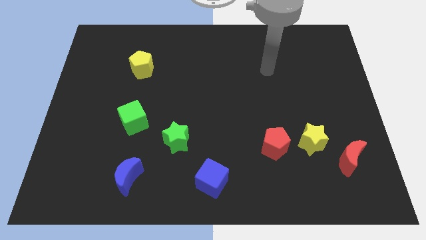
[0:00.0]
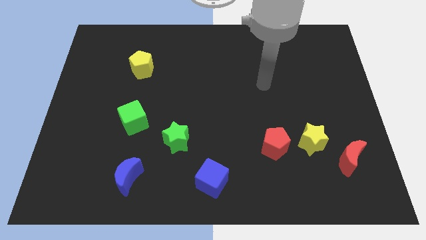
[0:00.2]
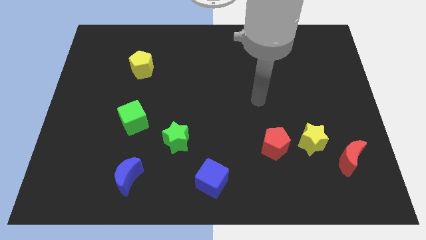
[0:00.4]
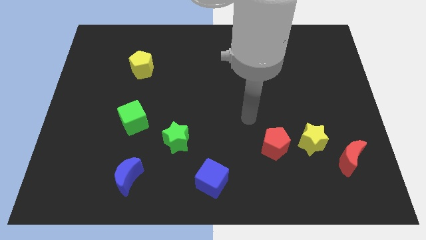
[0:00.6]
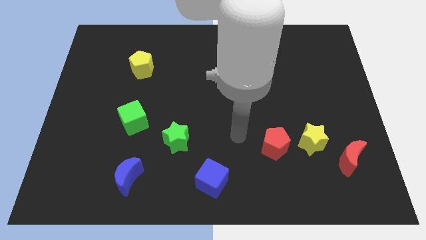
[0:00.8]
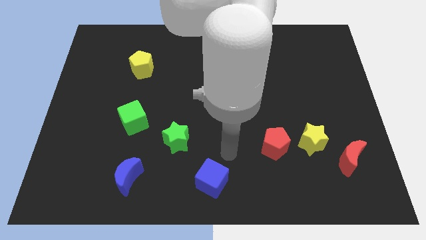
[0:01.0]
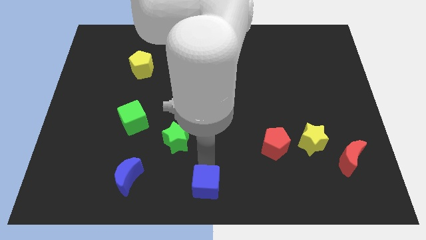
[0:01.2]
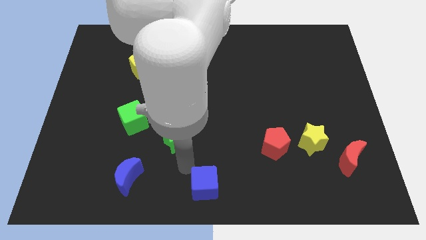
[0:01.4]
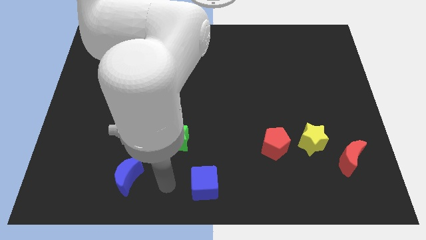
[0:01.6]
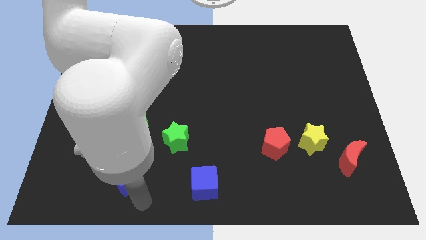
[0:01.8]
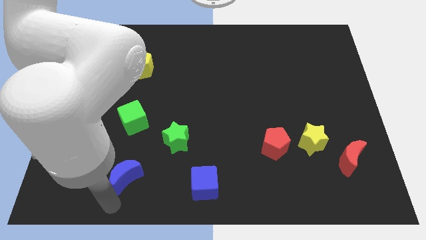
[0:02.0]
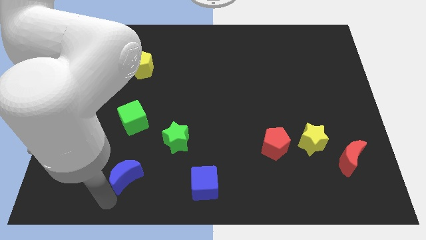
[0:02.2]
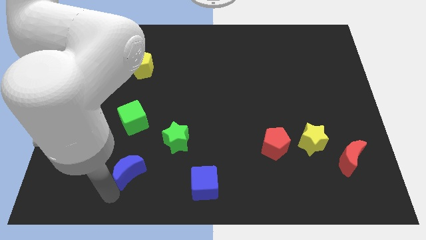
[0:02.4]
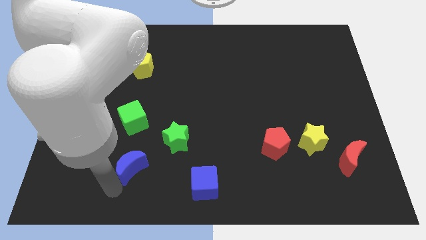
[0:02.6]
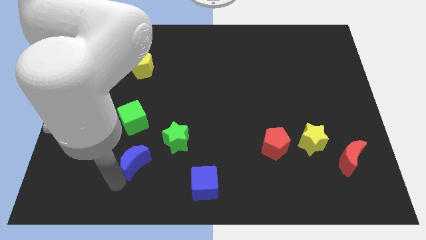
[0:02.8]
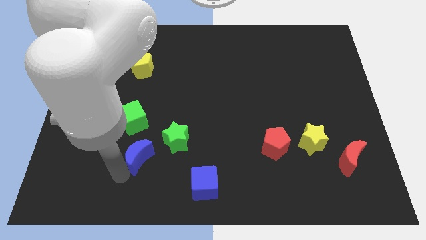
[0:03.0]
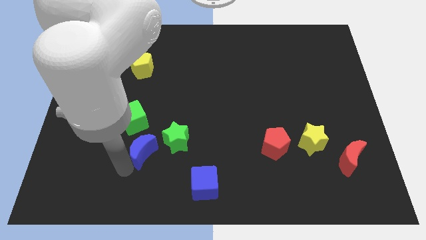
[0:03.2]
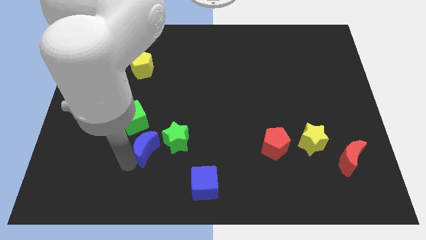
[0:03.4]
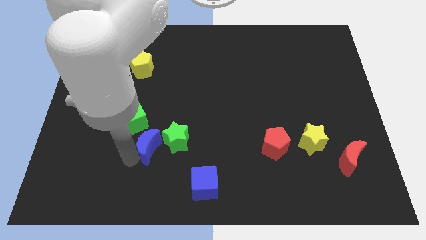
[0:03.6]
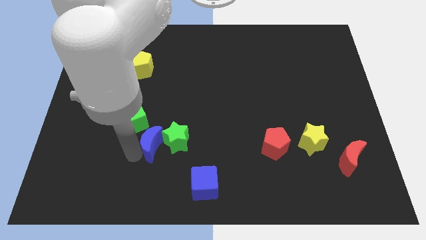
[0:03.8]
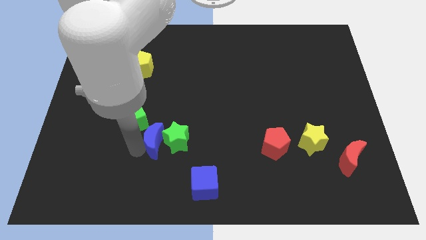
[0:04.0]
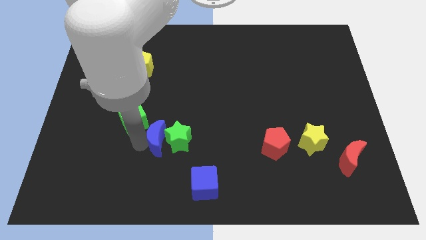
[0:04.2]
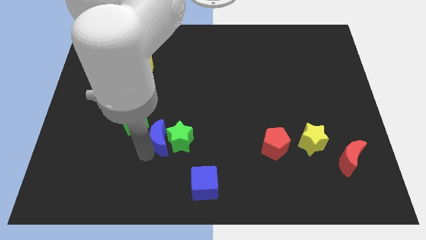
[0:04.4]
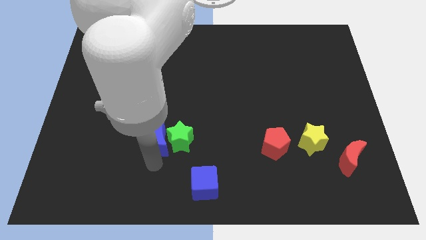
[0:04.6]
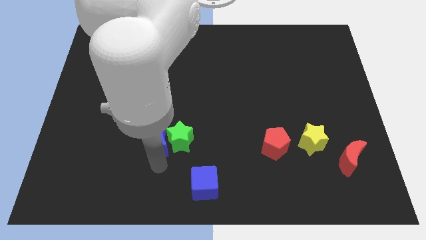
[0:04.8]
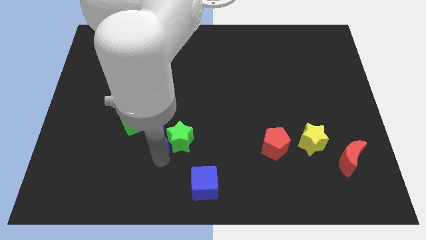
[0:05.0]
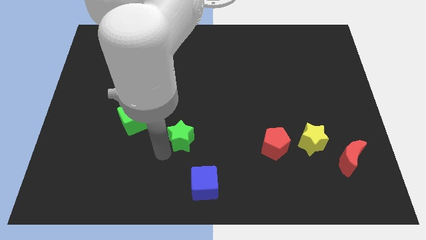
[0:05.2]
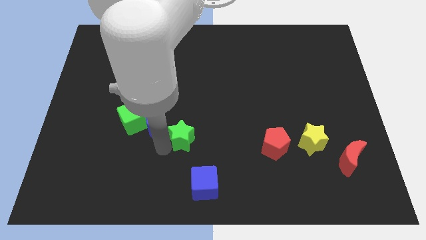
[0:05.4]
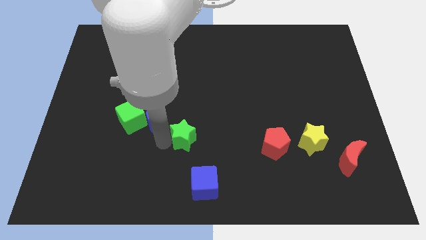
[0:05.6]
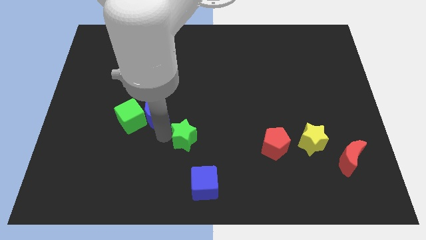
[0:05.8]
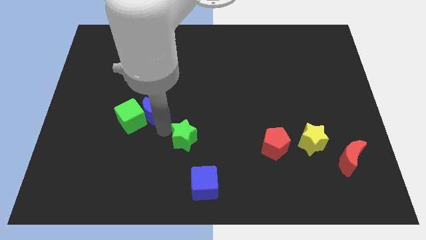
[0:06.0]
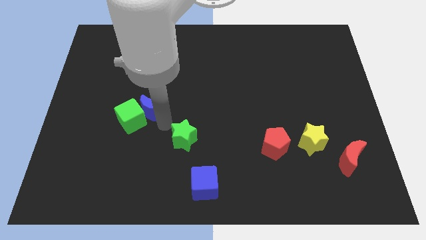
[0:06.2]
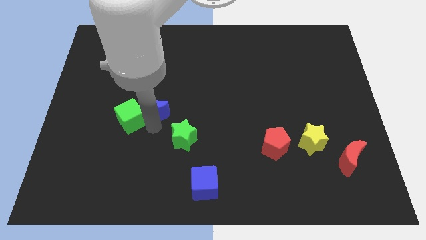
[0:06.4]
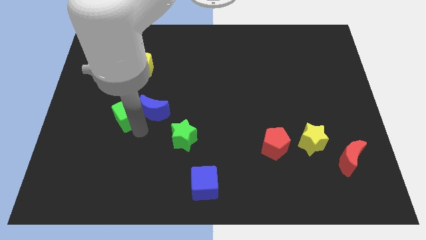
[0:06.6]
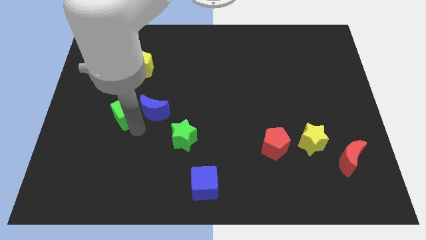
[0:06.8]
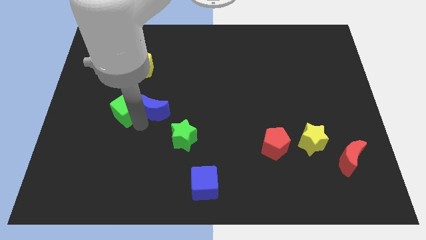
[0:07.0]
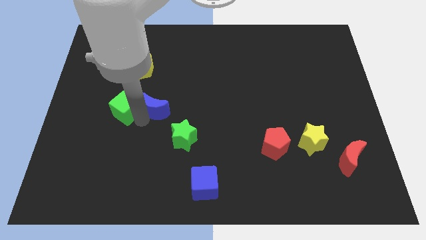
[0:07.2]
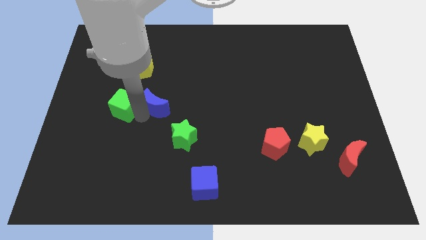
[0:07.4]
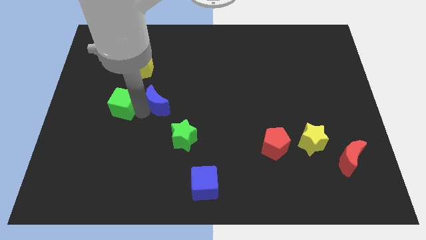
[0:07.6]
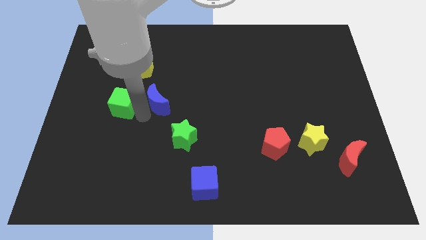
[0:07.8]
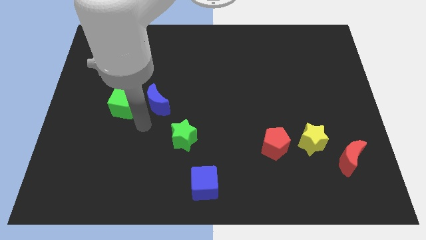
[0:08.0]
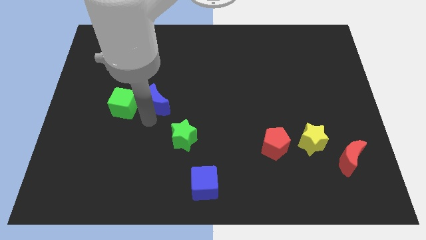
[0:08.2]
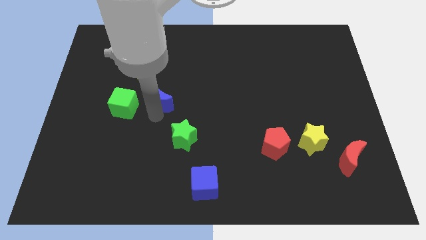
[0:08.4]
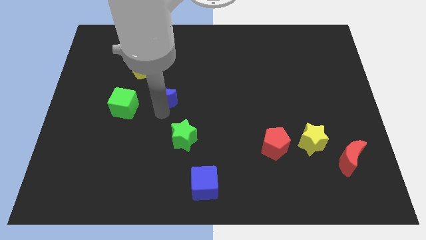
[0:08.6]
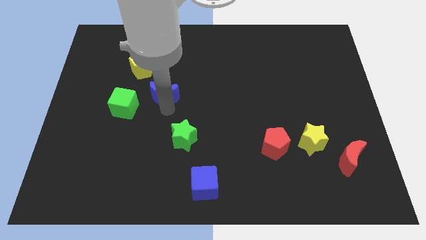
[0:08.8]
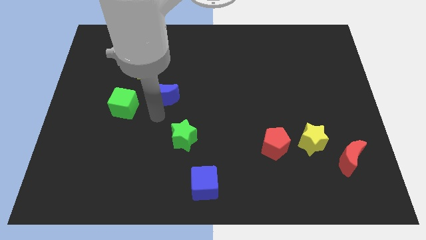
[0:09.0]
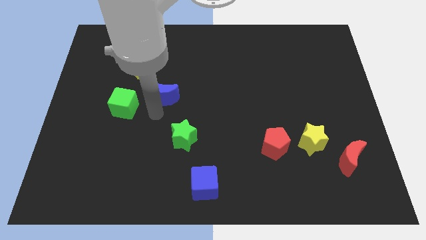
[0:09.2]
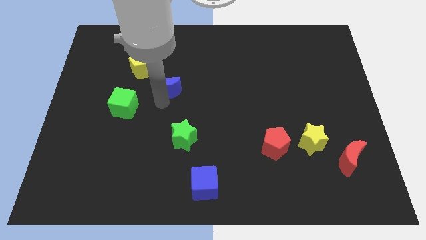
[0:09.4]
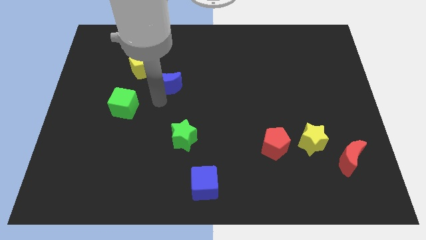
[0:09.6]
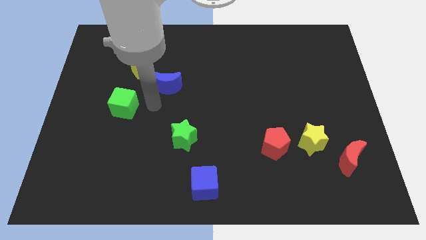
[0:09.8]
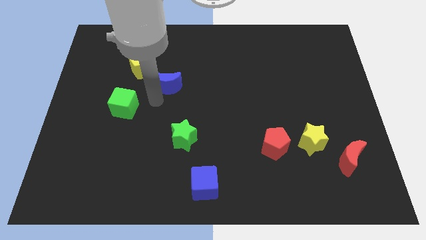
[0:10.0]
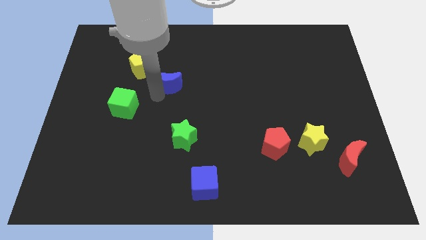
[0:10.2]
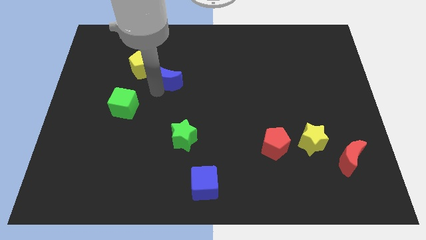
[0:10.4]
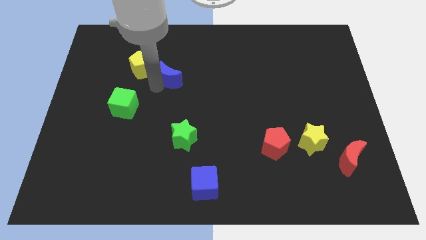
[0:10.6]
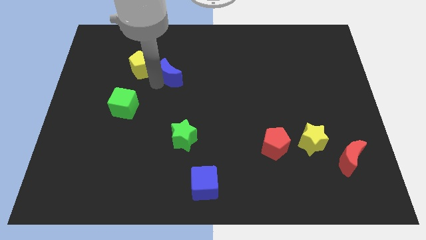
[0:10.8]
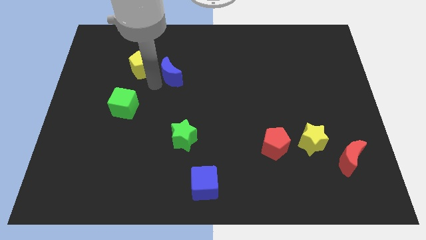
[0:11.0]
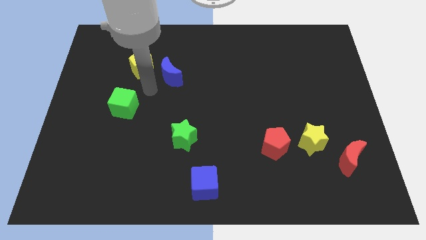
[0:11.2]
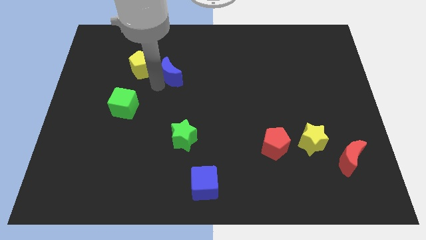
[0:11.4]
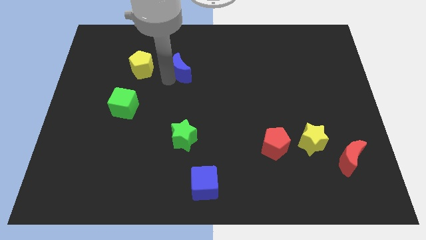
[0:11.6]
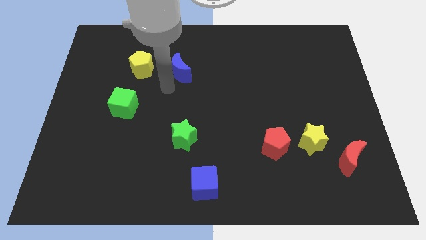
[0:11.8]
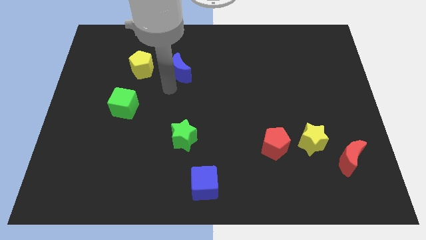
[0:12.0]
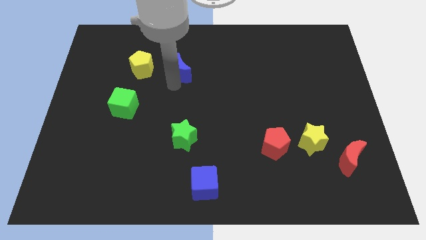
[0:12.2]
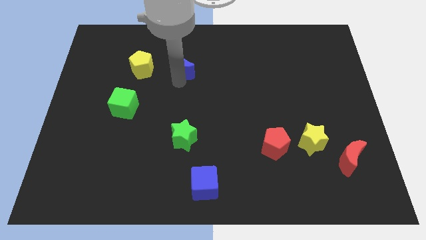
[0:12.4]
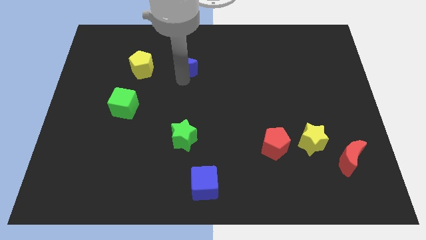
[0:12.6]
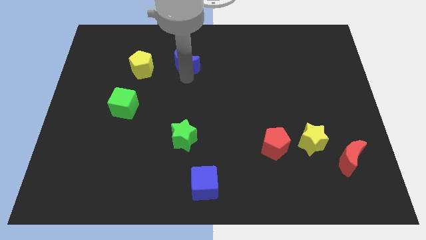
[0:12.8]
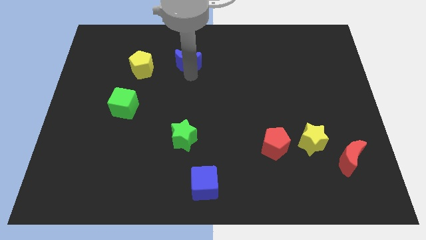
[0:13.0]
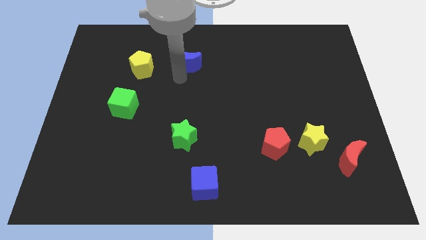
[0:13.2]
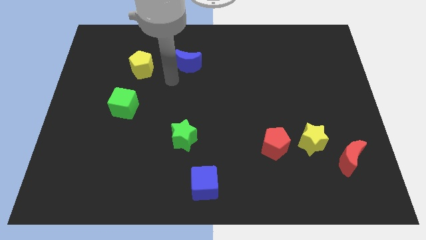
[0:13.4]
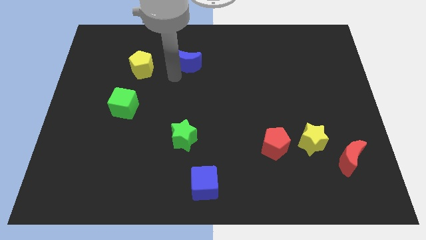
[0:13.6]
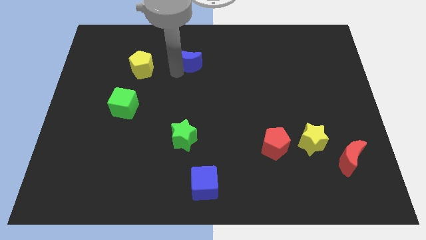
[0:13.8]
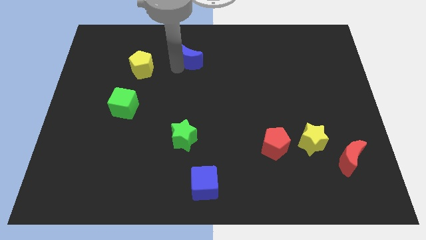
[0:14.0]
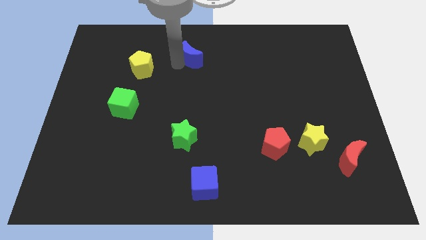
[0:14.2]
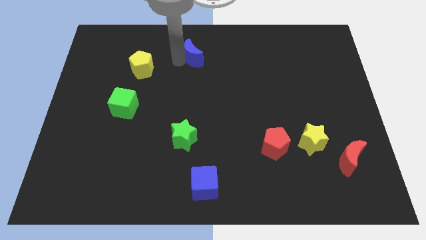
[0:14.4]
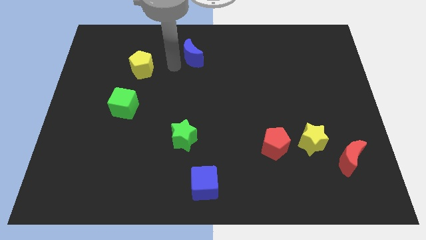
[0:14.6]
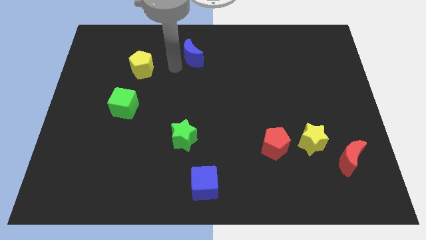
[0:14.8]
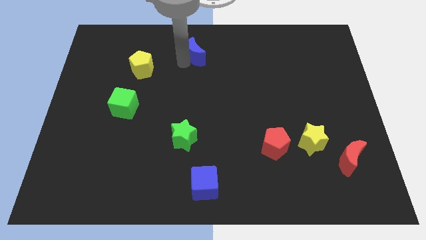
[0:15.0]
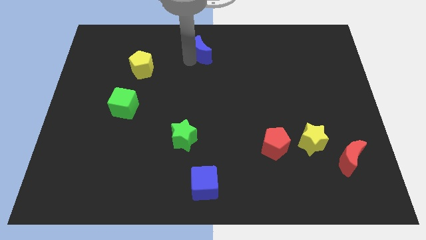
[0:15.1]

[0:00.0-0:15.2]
put the blue moon to the top side
